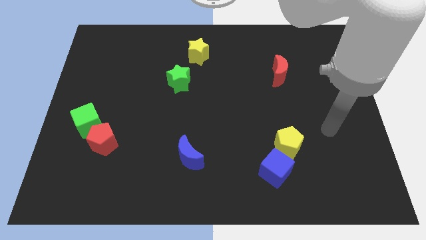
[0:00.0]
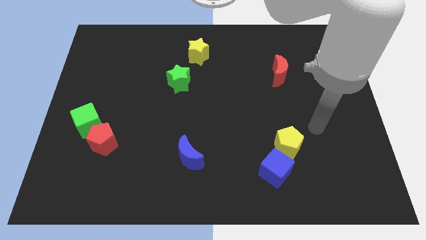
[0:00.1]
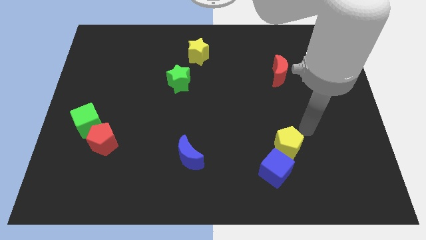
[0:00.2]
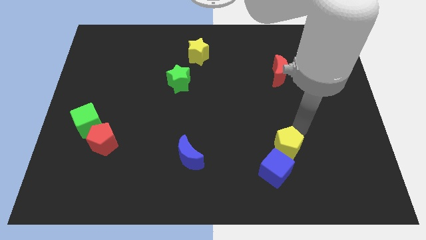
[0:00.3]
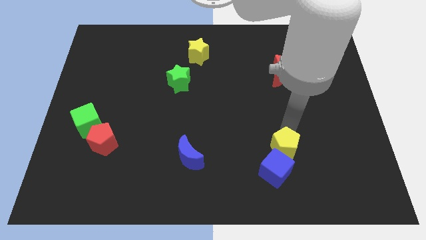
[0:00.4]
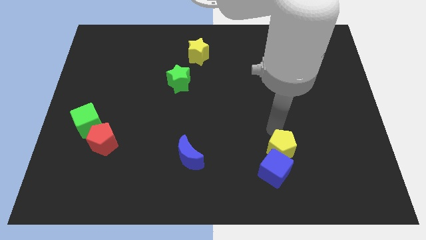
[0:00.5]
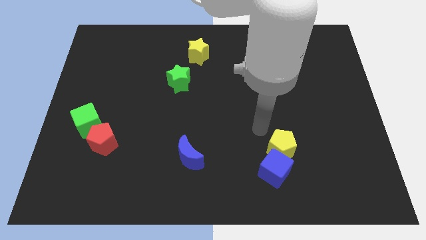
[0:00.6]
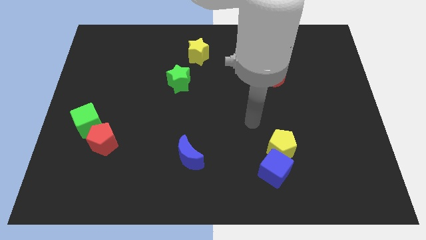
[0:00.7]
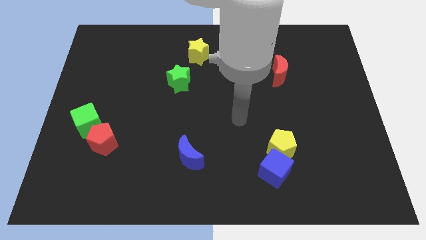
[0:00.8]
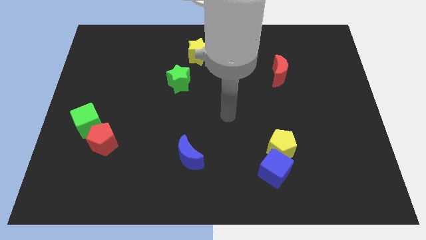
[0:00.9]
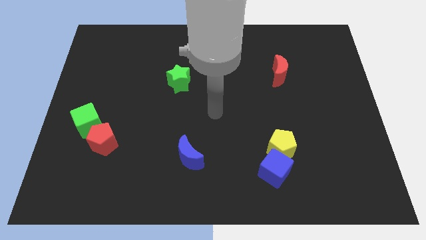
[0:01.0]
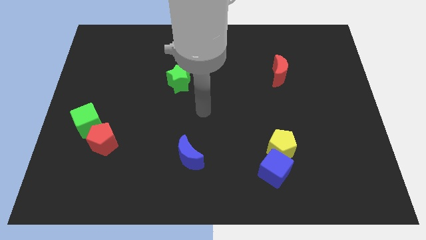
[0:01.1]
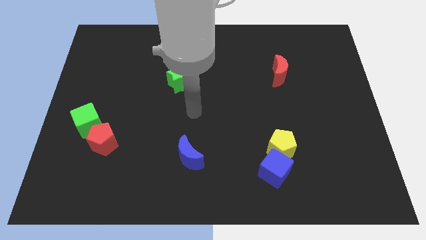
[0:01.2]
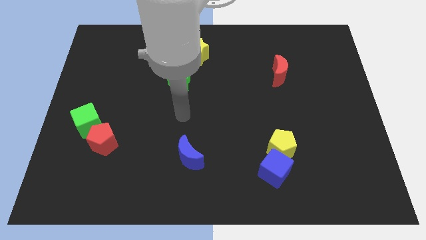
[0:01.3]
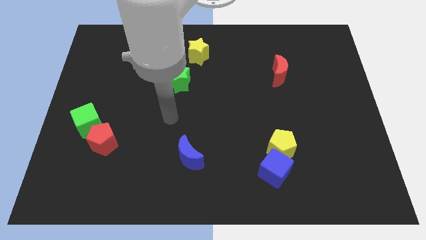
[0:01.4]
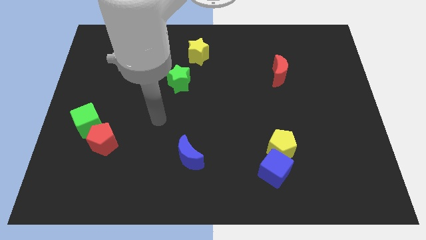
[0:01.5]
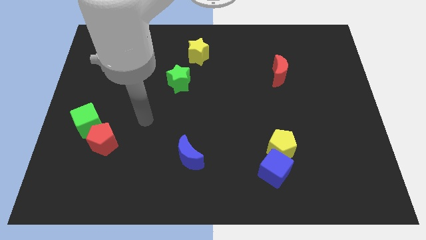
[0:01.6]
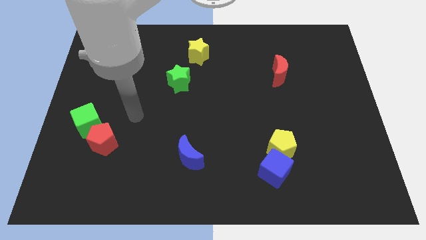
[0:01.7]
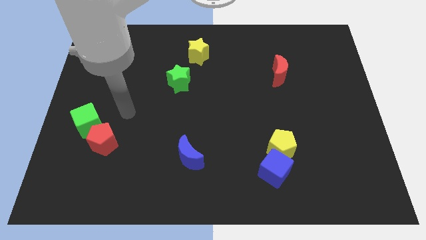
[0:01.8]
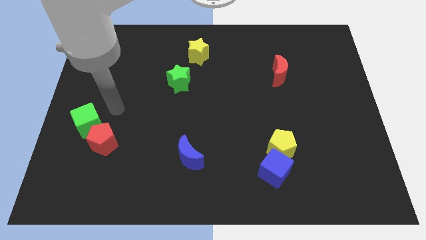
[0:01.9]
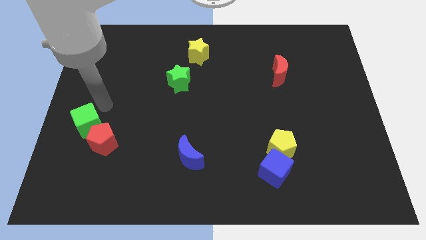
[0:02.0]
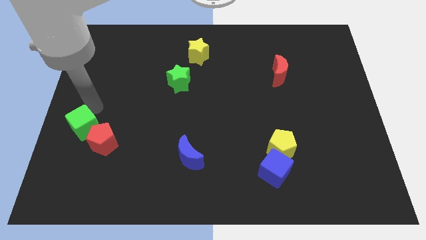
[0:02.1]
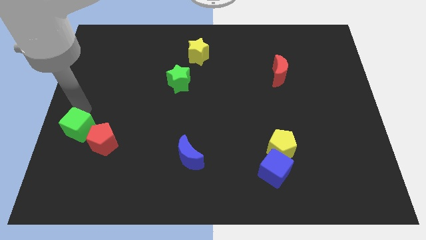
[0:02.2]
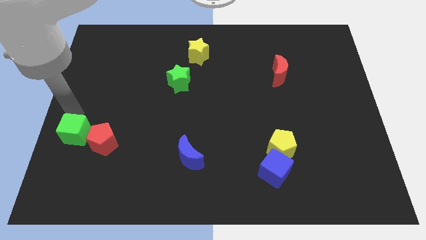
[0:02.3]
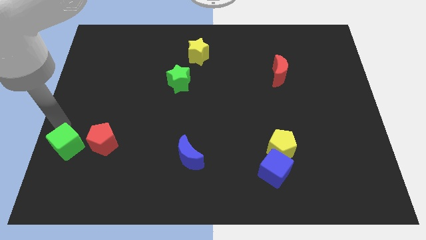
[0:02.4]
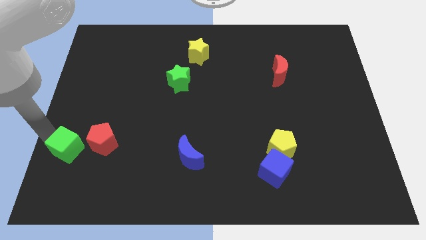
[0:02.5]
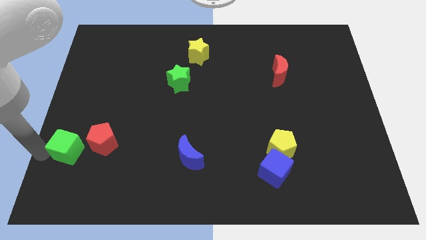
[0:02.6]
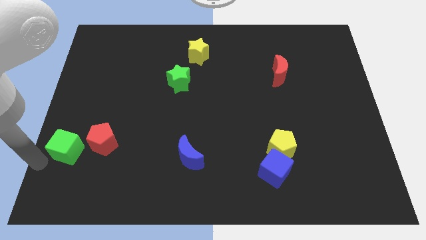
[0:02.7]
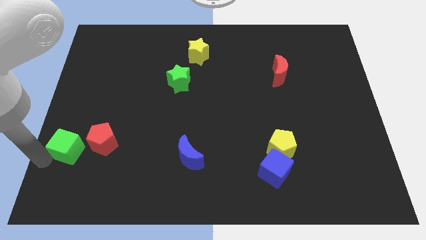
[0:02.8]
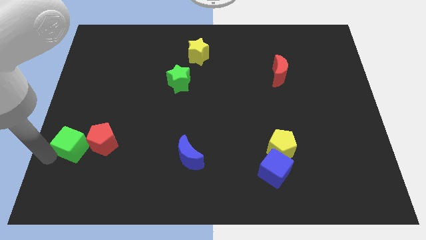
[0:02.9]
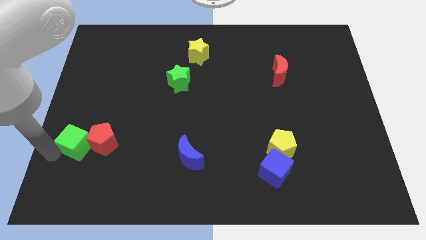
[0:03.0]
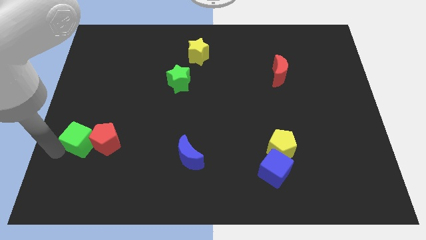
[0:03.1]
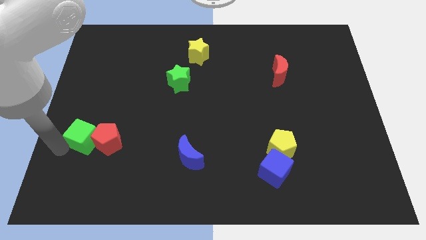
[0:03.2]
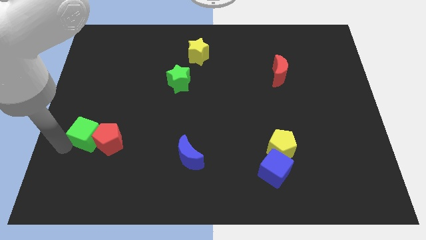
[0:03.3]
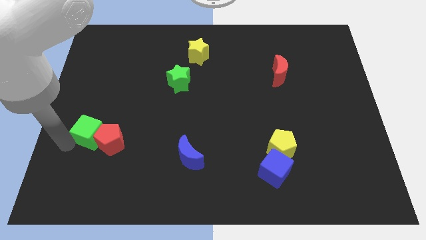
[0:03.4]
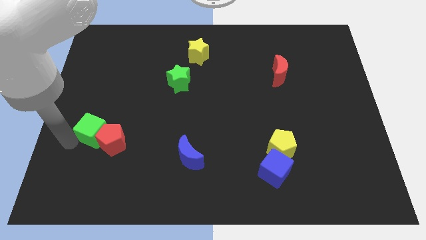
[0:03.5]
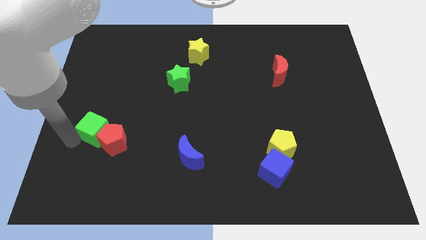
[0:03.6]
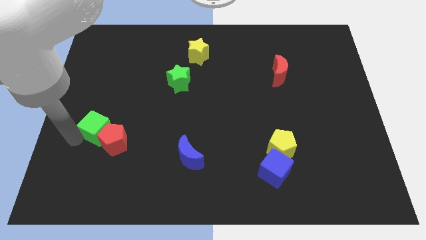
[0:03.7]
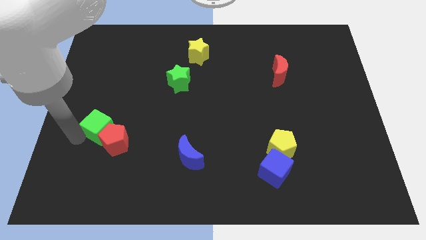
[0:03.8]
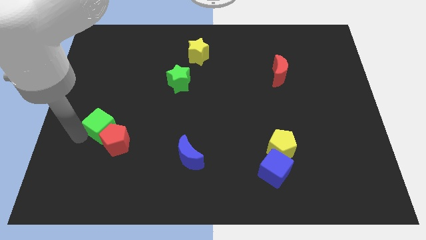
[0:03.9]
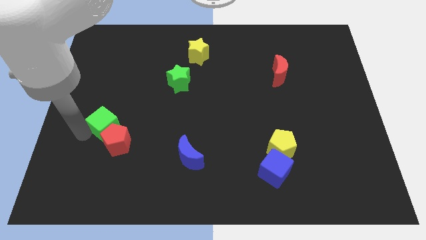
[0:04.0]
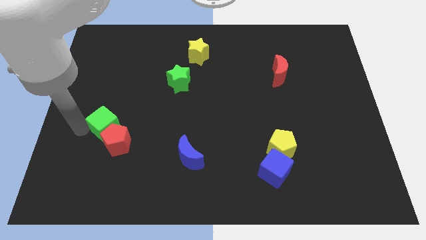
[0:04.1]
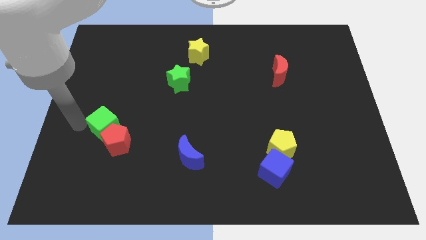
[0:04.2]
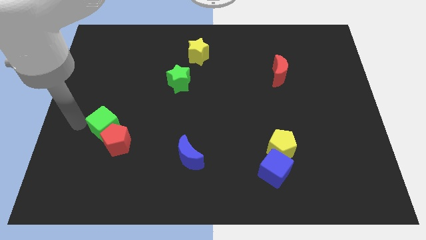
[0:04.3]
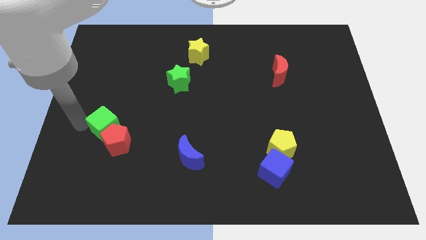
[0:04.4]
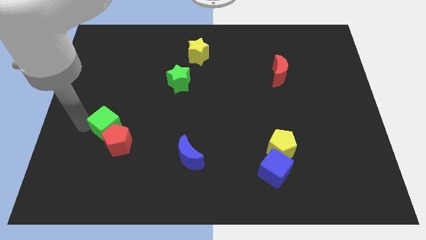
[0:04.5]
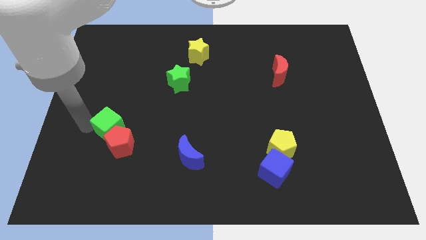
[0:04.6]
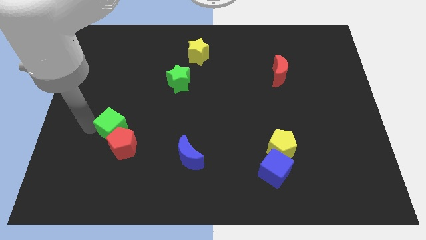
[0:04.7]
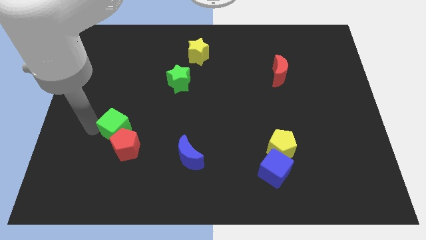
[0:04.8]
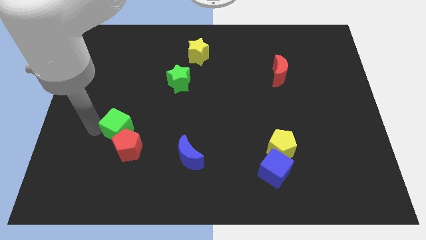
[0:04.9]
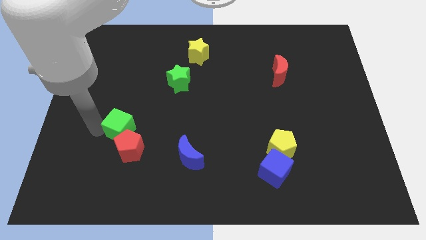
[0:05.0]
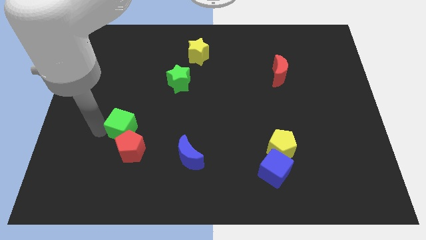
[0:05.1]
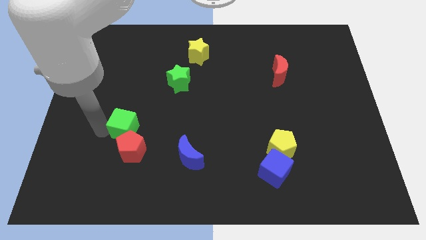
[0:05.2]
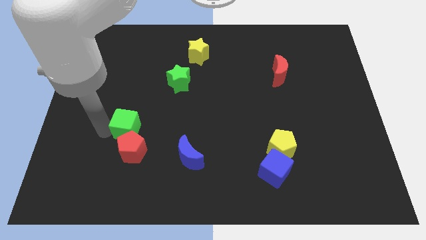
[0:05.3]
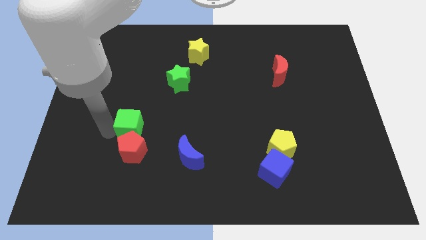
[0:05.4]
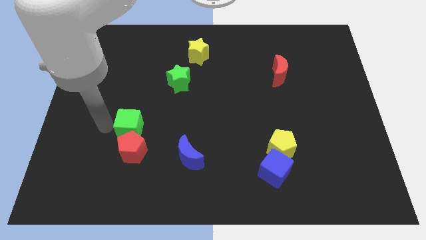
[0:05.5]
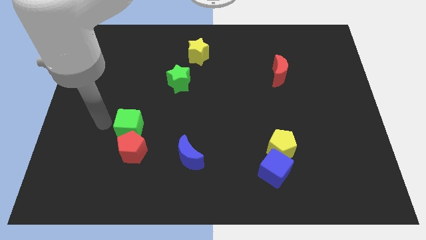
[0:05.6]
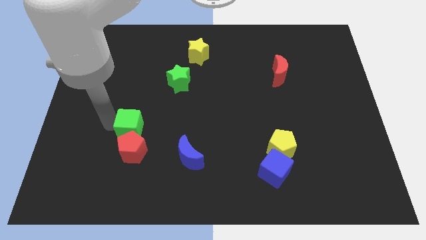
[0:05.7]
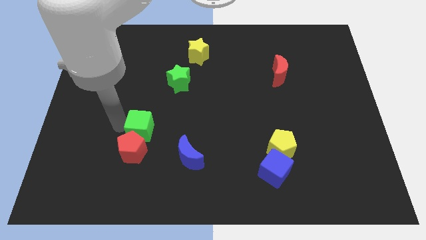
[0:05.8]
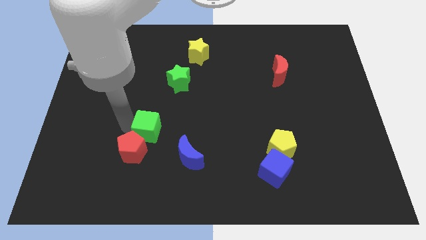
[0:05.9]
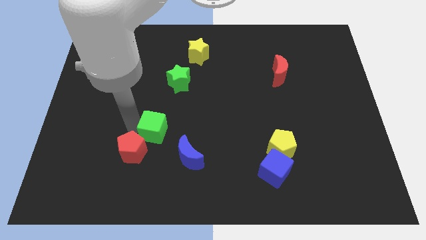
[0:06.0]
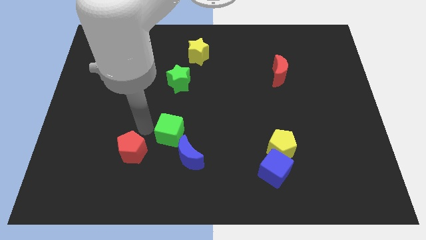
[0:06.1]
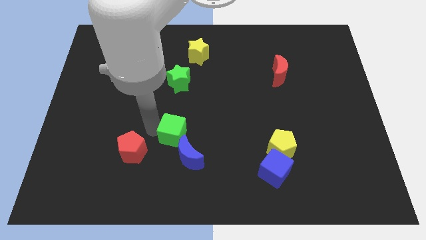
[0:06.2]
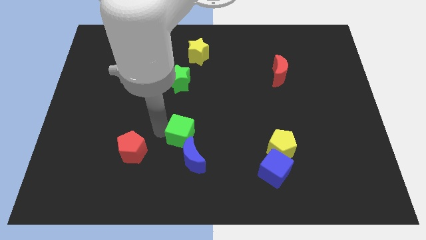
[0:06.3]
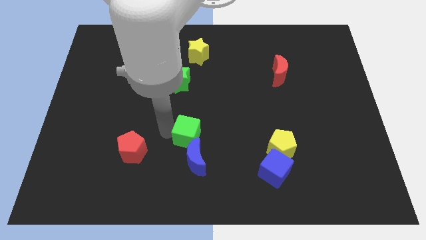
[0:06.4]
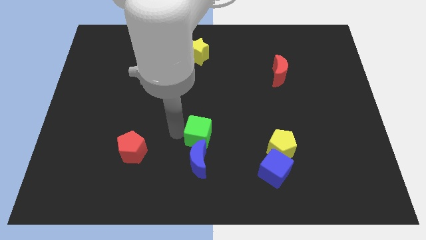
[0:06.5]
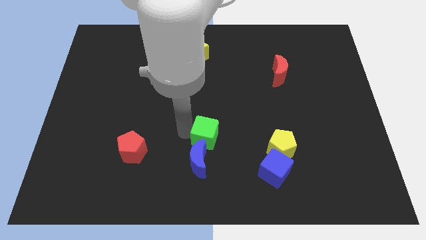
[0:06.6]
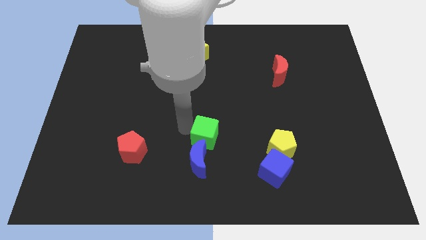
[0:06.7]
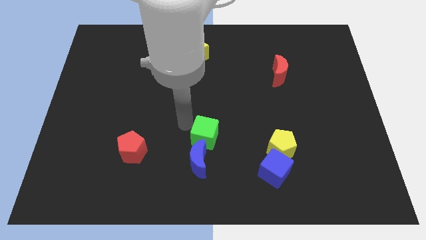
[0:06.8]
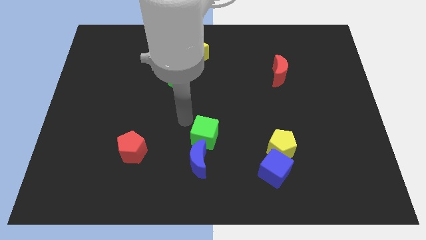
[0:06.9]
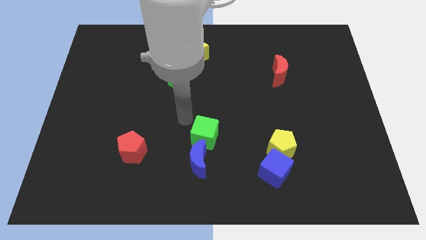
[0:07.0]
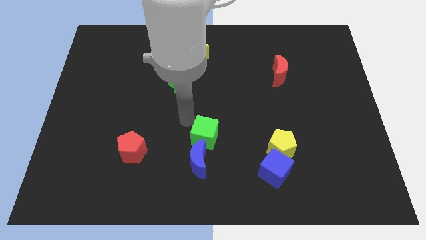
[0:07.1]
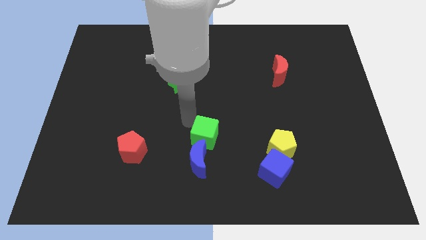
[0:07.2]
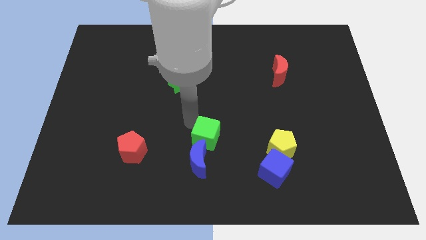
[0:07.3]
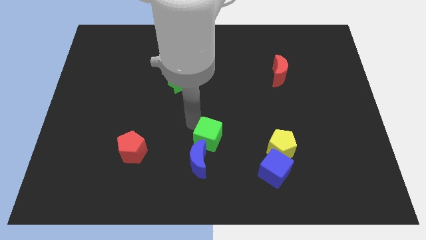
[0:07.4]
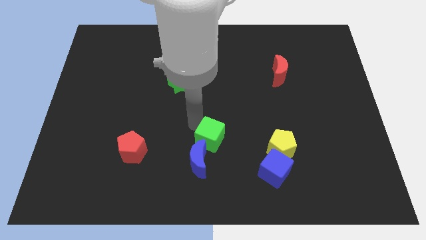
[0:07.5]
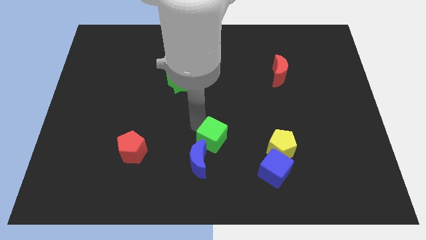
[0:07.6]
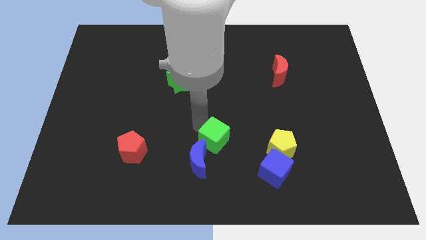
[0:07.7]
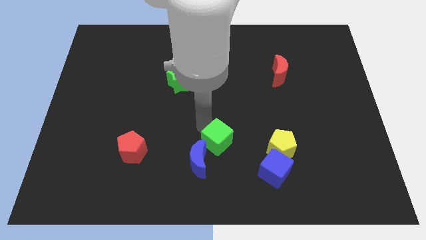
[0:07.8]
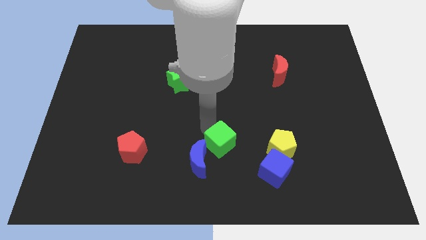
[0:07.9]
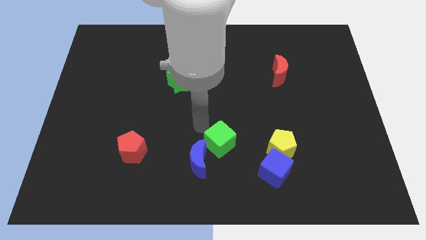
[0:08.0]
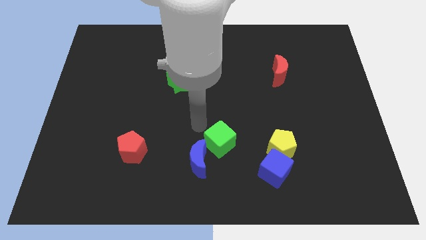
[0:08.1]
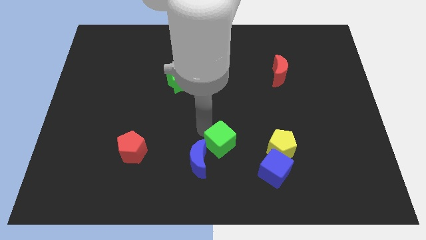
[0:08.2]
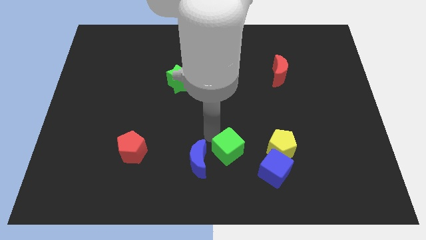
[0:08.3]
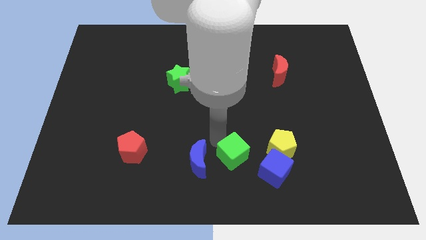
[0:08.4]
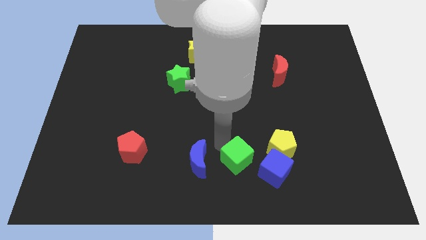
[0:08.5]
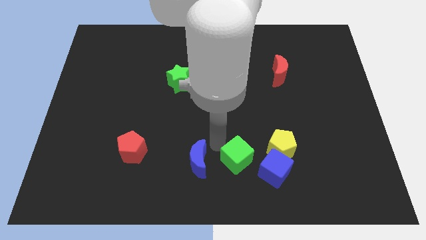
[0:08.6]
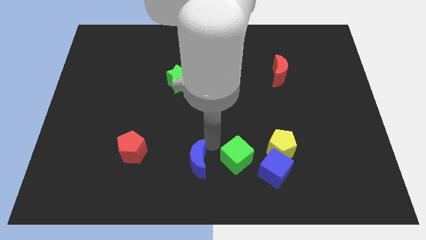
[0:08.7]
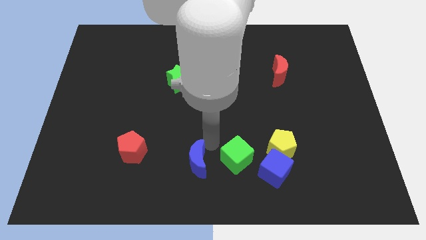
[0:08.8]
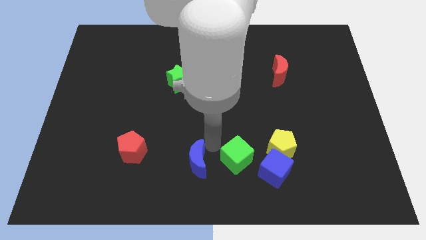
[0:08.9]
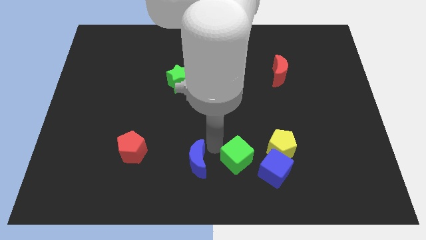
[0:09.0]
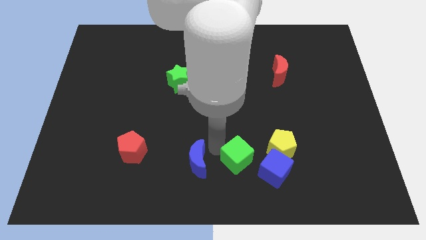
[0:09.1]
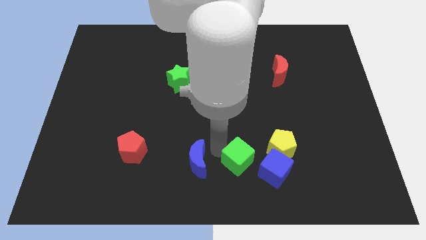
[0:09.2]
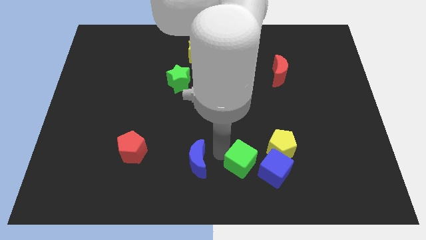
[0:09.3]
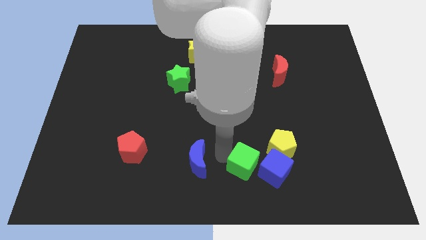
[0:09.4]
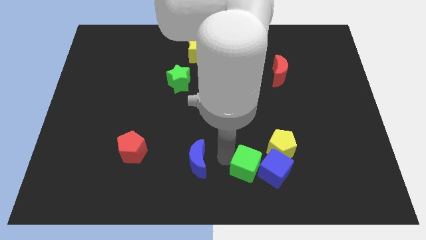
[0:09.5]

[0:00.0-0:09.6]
move the green cube close to the blue cube
